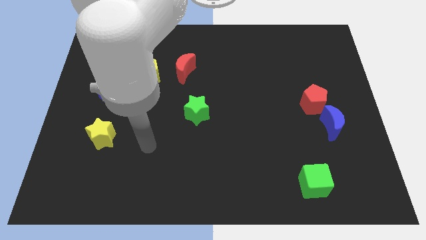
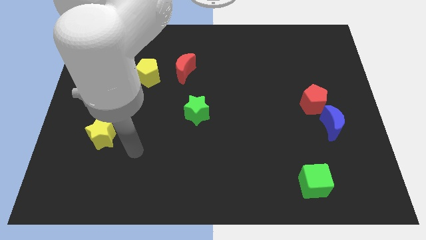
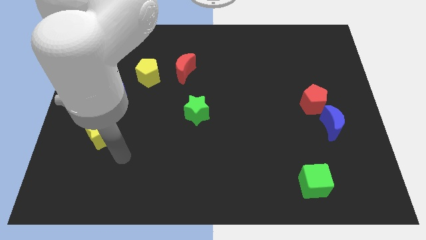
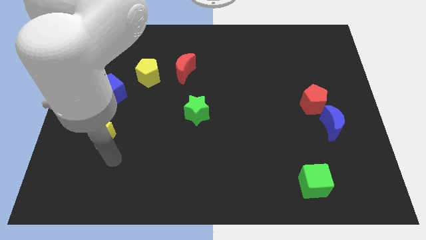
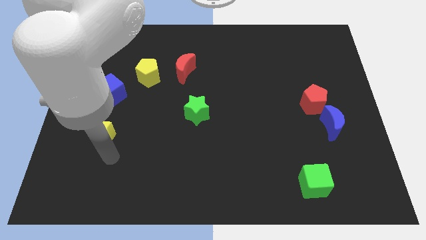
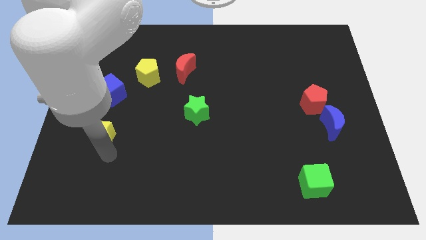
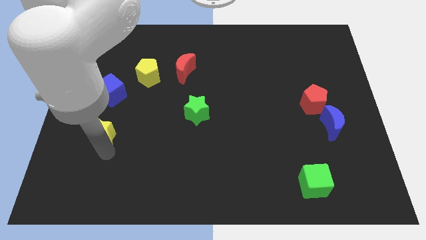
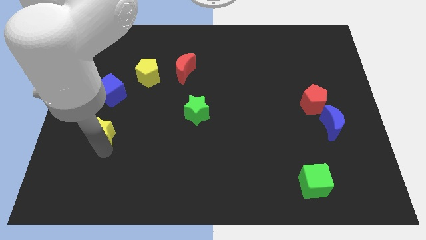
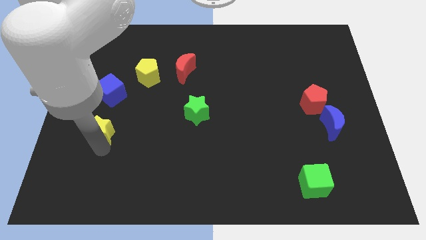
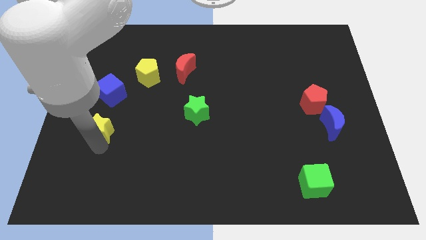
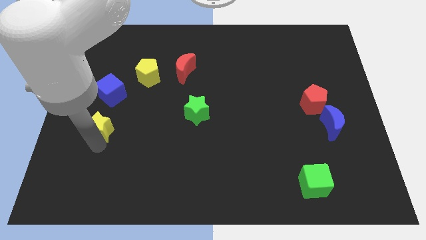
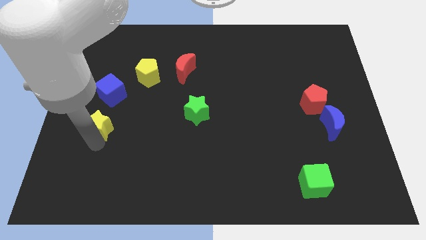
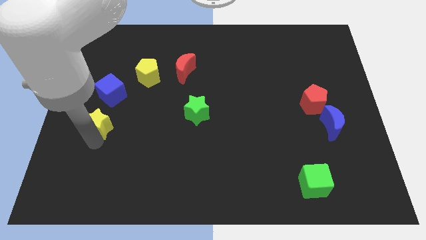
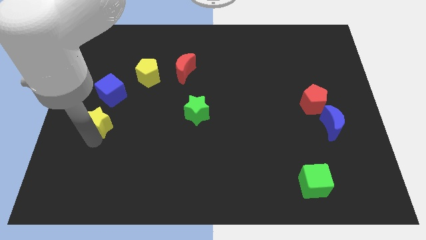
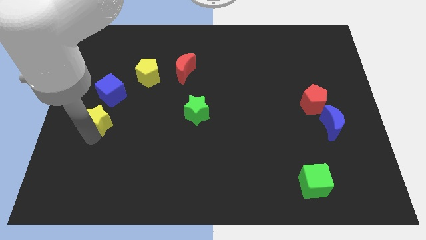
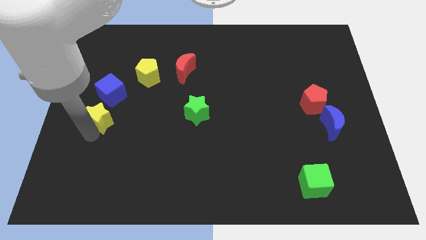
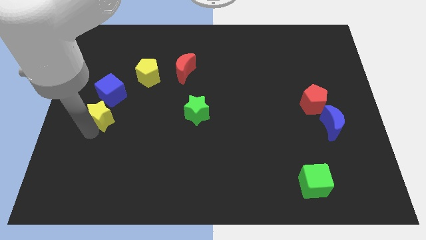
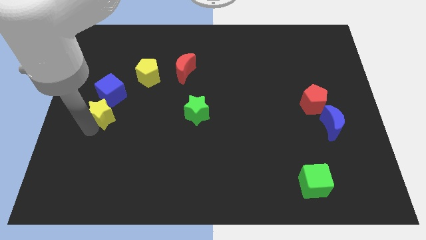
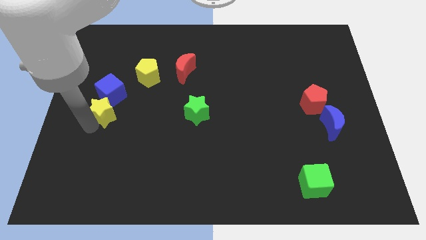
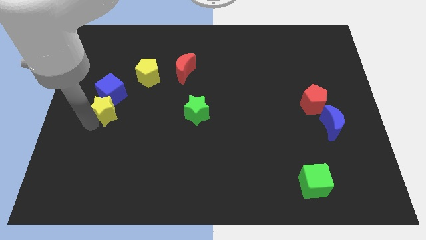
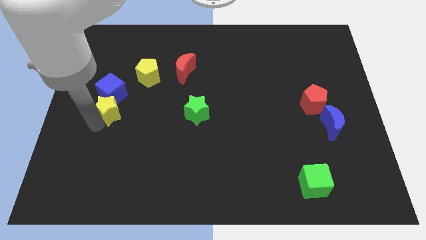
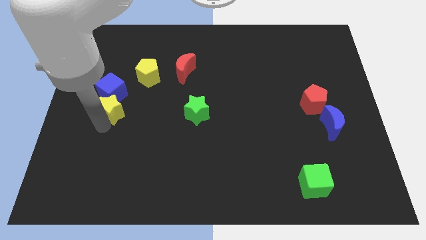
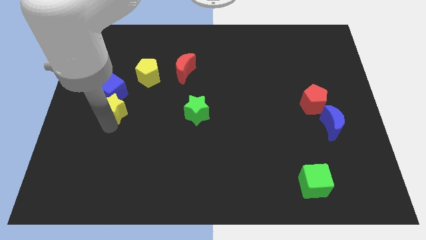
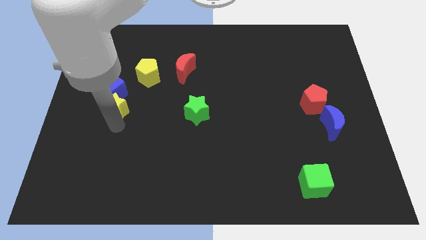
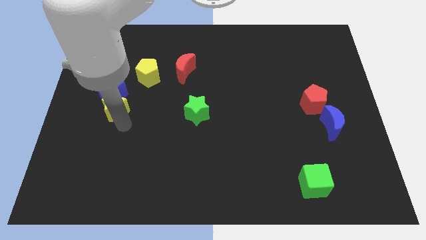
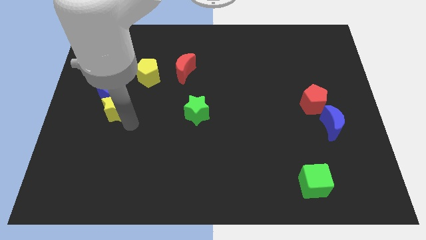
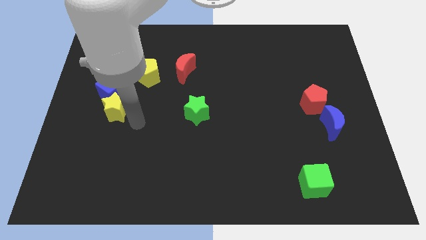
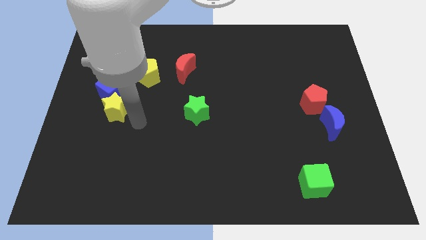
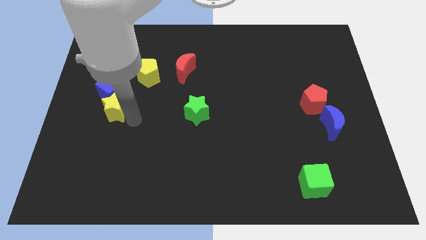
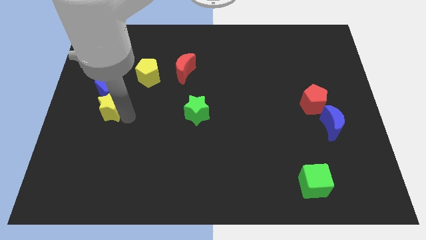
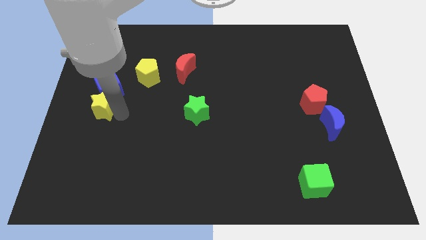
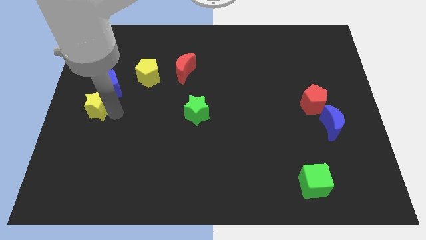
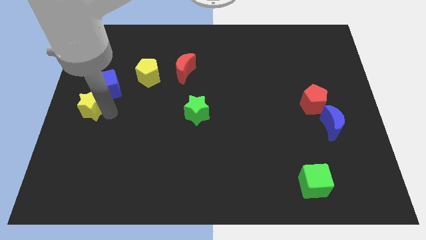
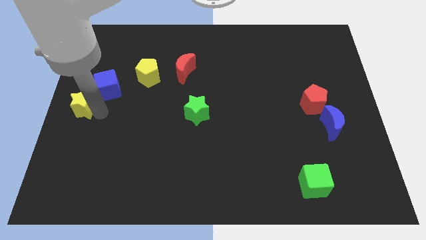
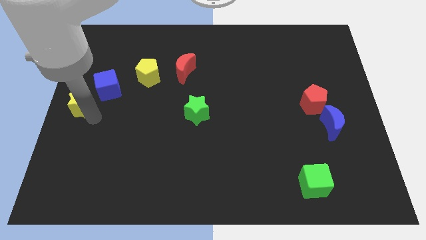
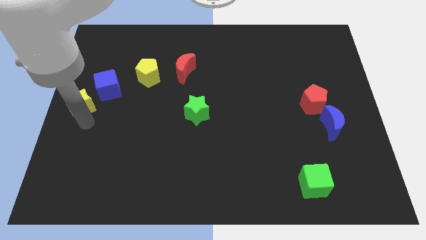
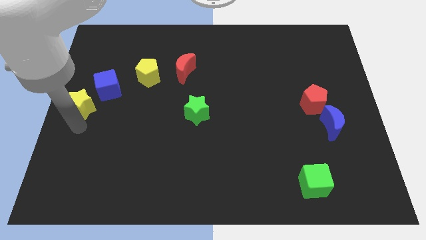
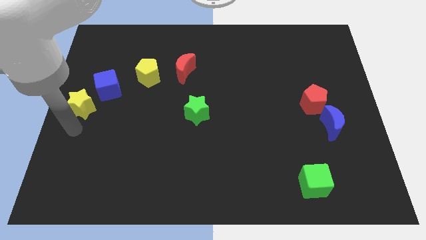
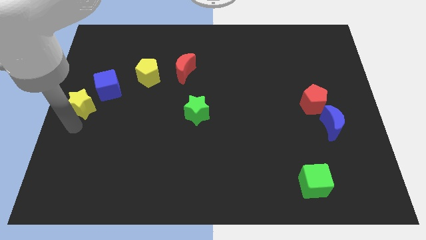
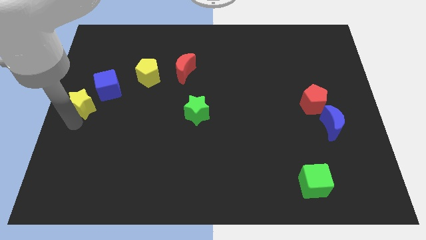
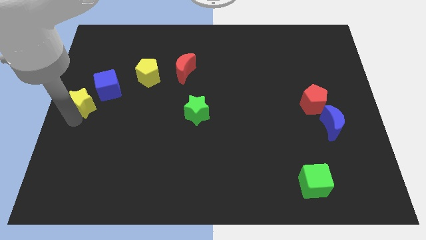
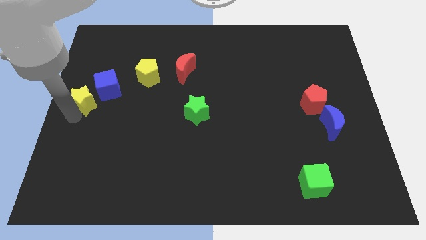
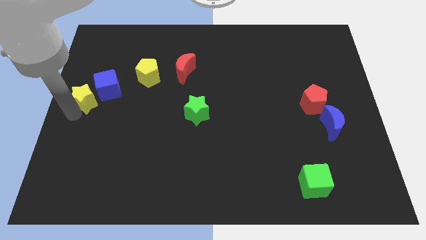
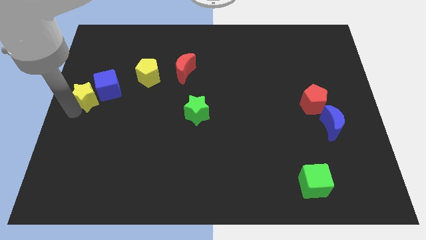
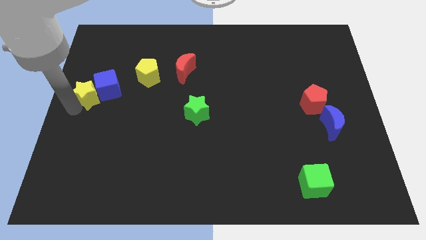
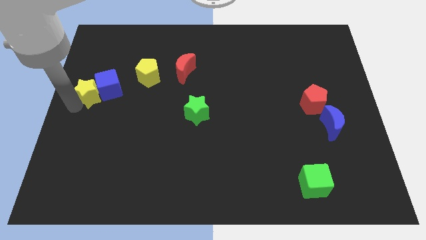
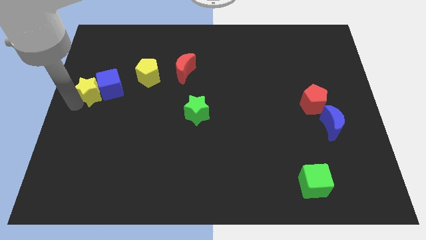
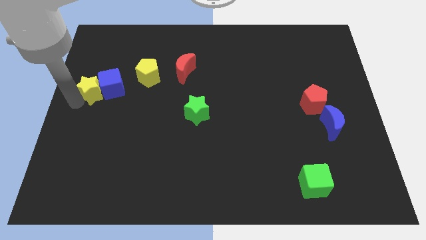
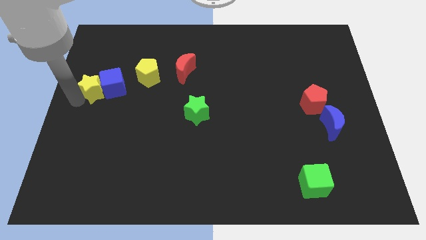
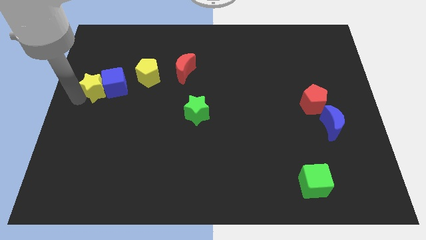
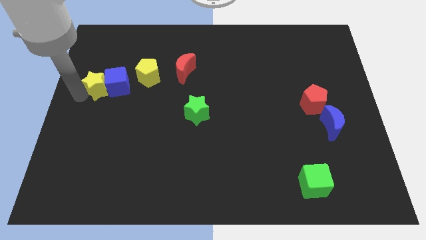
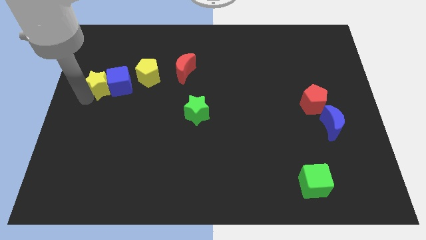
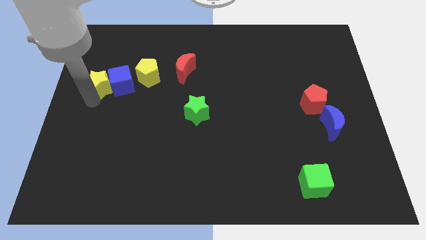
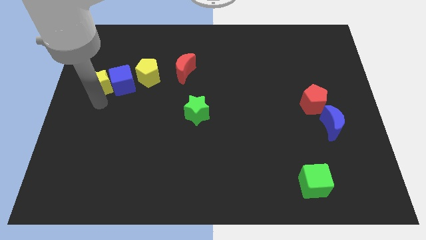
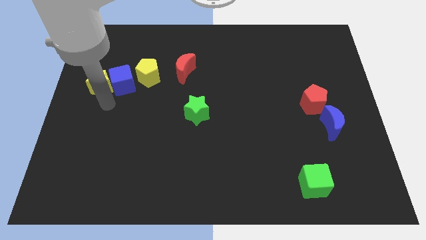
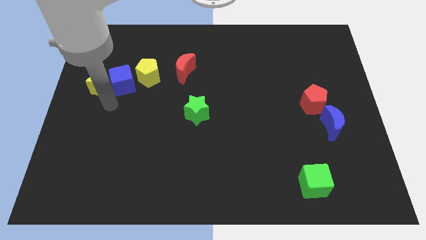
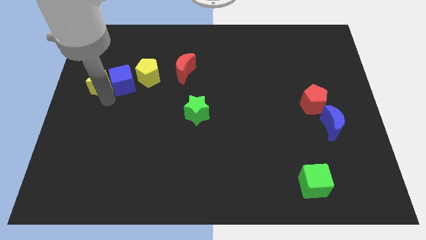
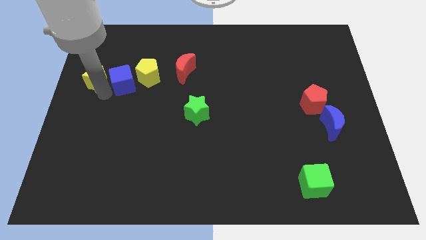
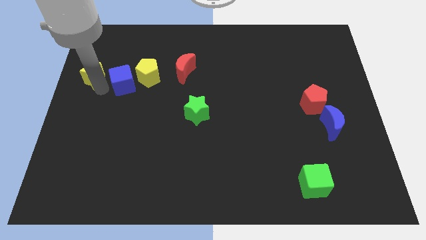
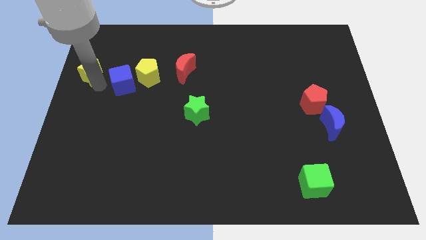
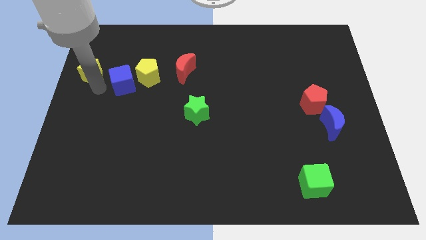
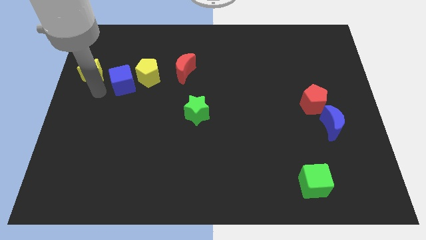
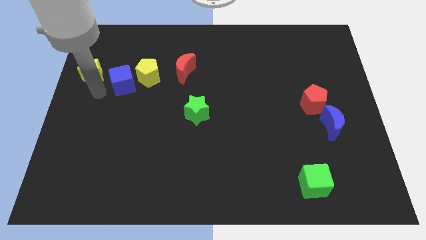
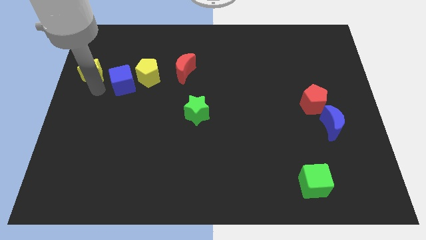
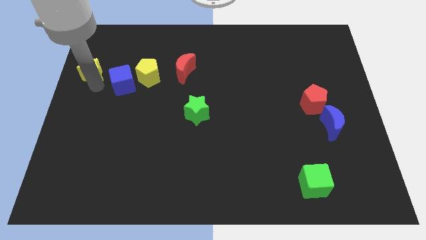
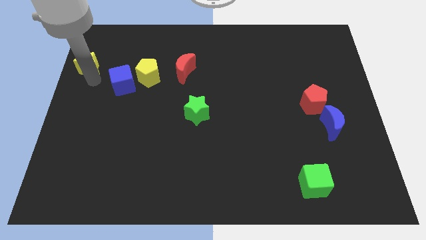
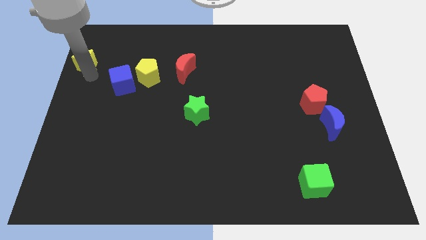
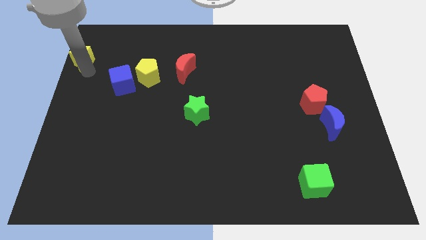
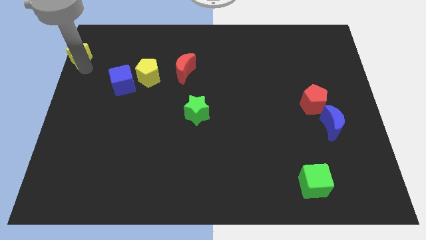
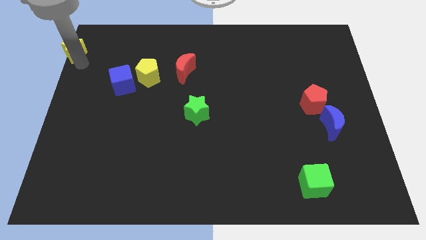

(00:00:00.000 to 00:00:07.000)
push the yellow star to the top left of the board
